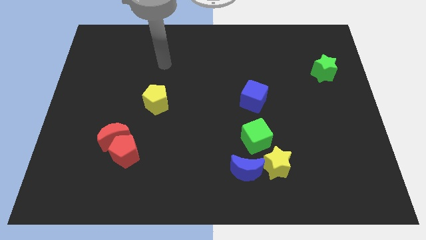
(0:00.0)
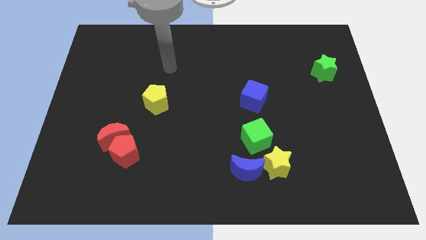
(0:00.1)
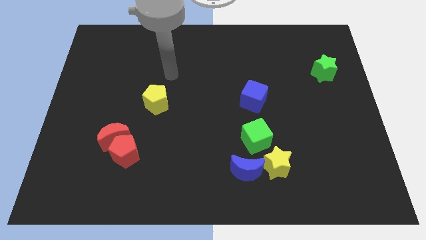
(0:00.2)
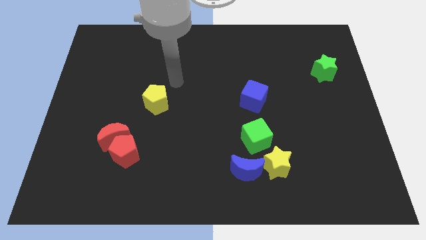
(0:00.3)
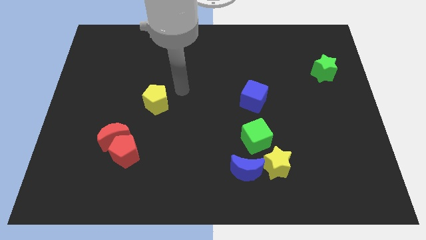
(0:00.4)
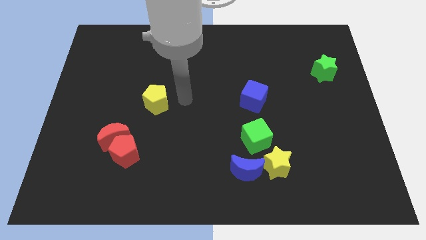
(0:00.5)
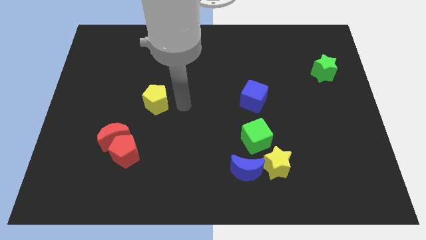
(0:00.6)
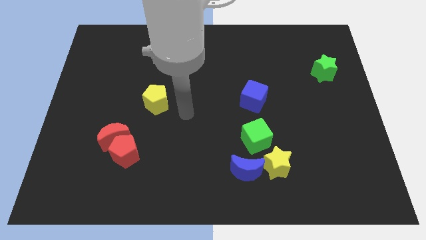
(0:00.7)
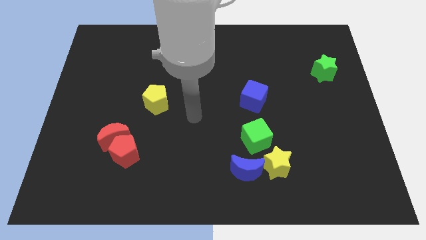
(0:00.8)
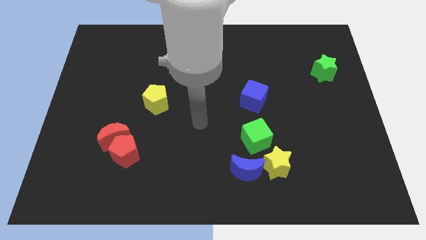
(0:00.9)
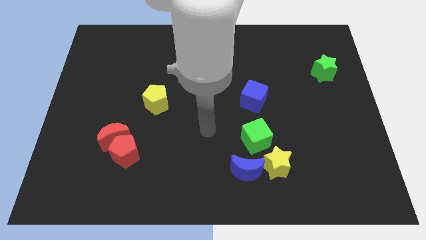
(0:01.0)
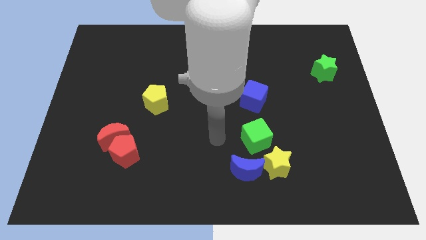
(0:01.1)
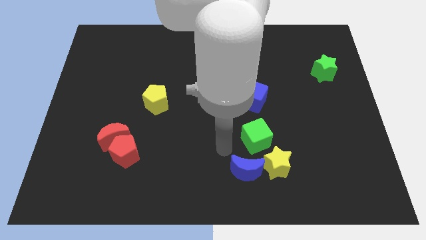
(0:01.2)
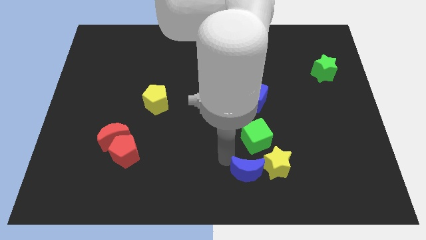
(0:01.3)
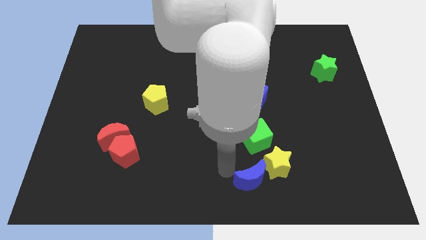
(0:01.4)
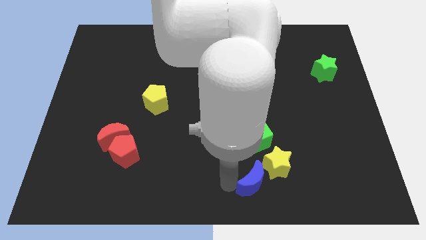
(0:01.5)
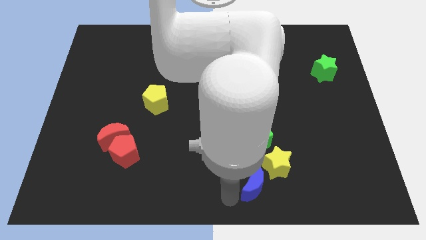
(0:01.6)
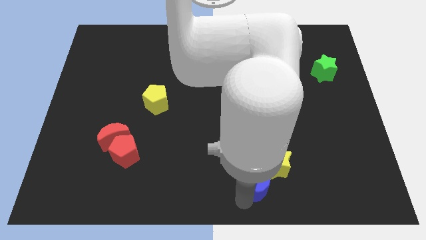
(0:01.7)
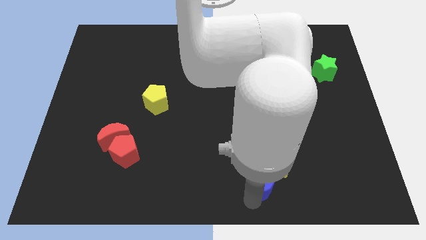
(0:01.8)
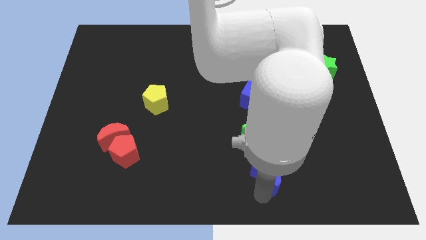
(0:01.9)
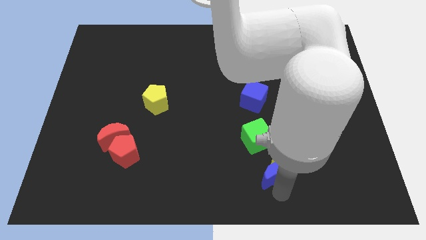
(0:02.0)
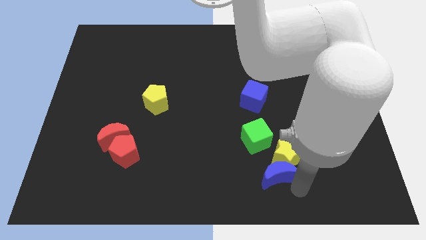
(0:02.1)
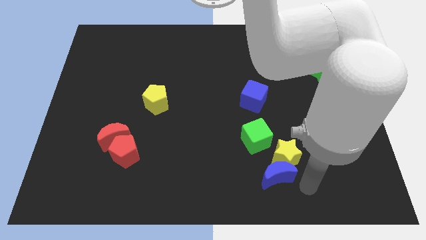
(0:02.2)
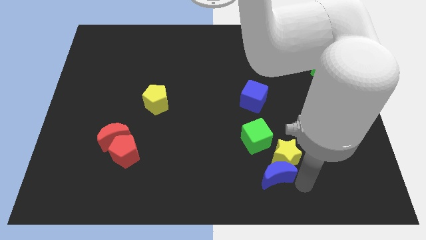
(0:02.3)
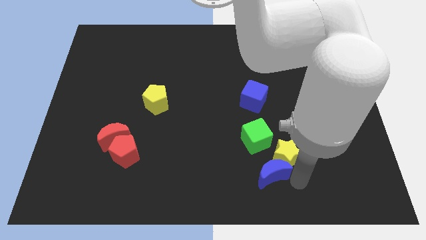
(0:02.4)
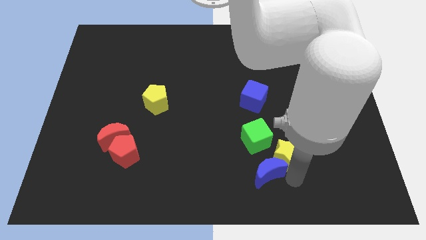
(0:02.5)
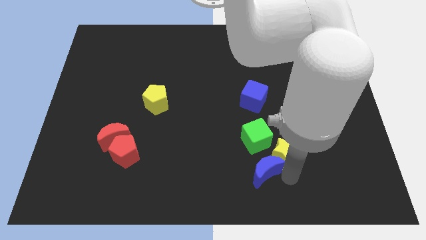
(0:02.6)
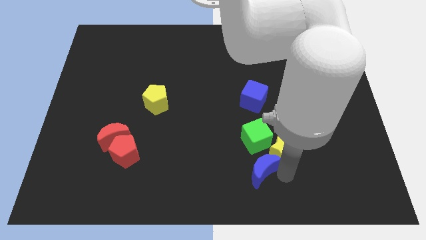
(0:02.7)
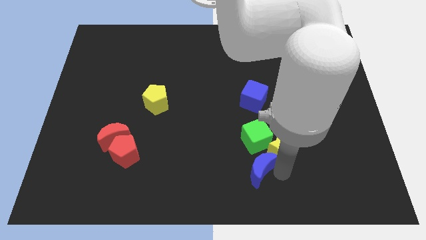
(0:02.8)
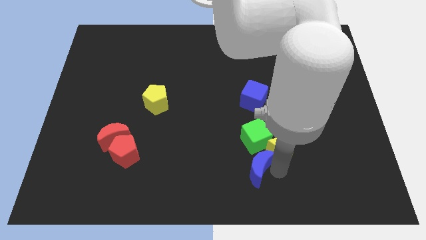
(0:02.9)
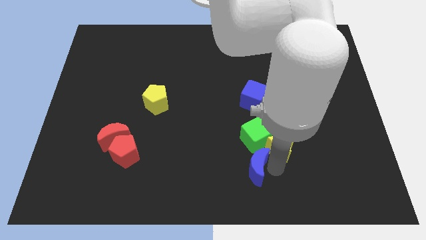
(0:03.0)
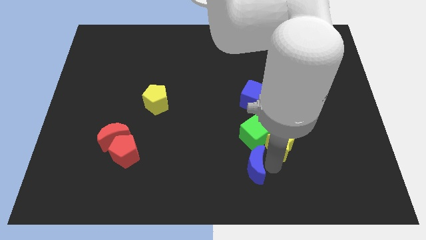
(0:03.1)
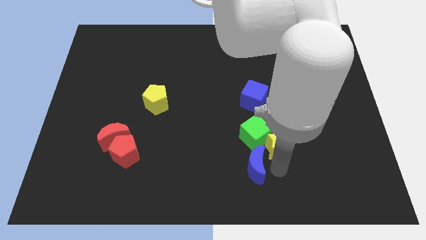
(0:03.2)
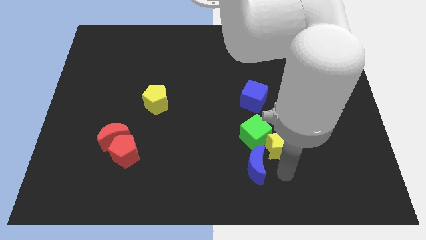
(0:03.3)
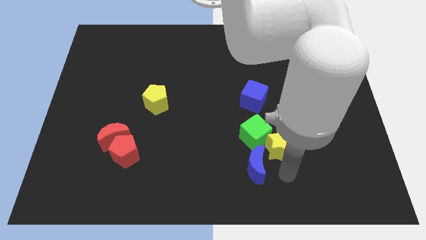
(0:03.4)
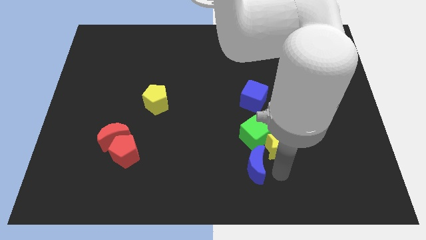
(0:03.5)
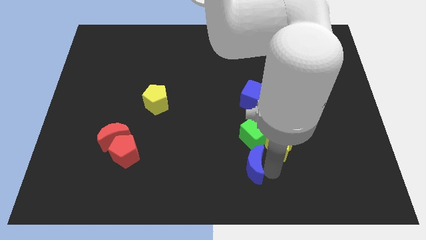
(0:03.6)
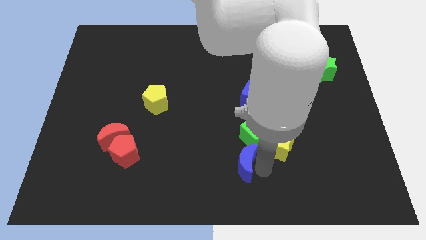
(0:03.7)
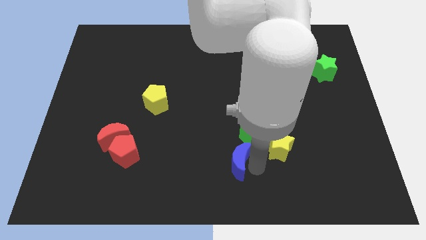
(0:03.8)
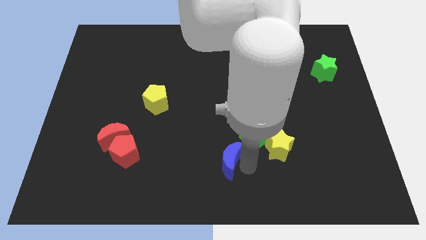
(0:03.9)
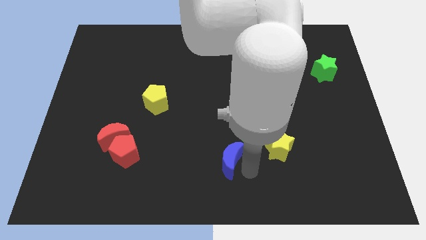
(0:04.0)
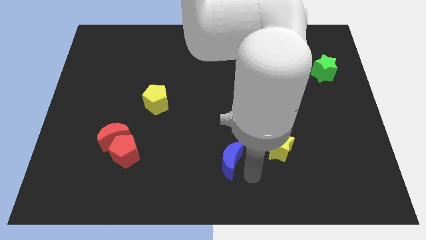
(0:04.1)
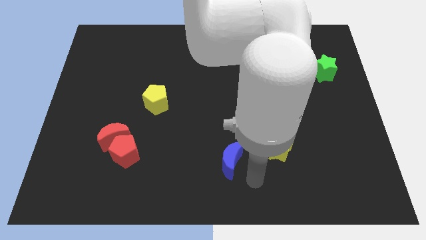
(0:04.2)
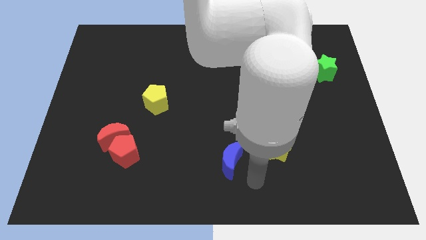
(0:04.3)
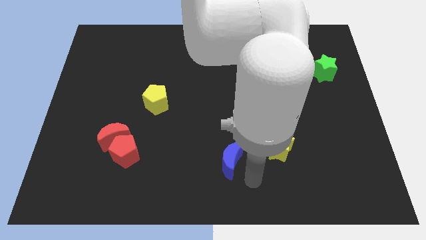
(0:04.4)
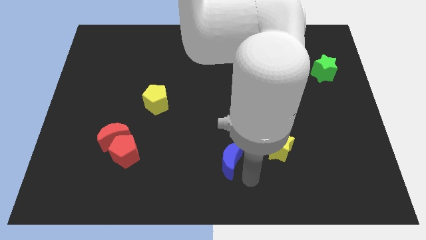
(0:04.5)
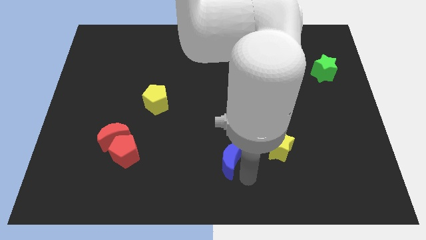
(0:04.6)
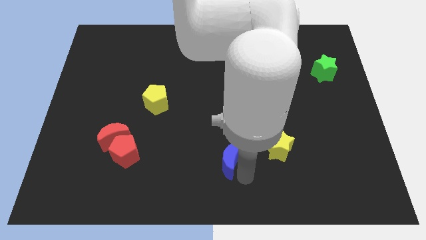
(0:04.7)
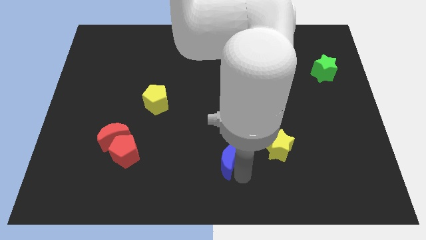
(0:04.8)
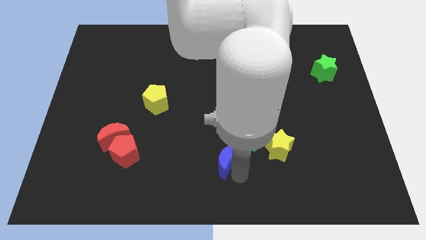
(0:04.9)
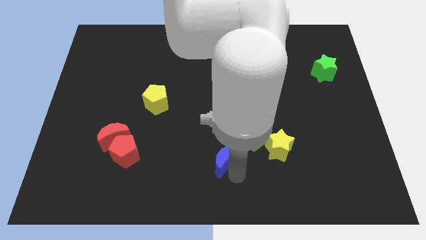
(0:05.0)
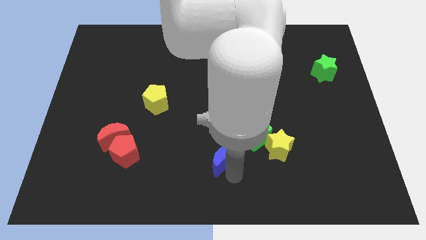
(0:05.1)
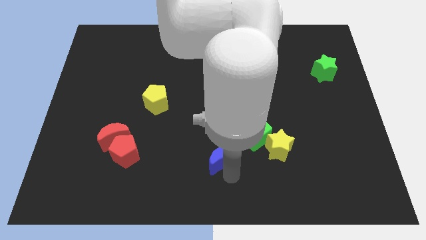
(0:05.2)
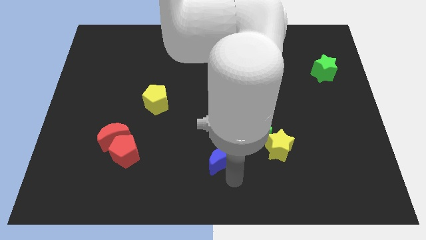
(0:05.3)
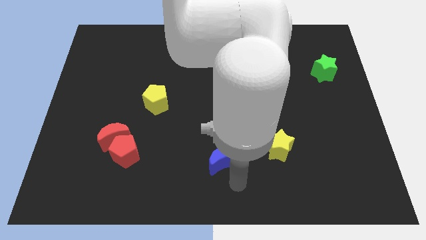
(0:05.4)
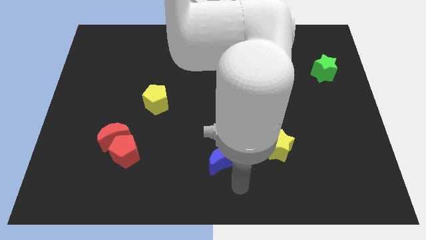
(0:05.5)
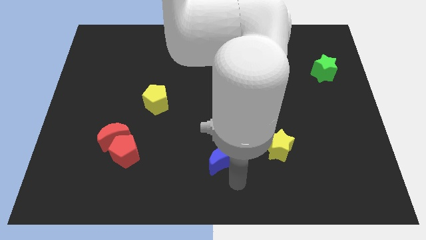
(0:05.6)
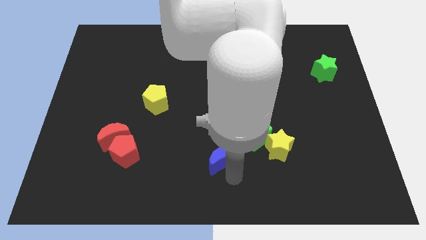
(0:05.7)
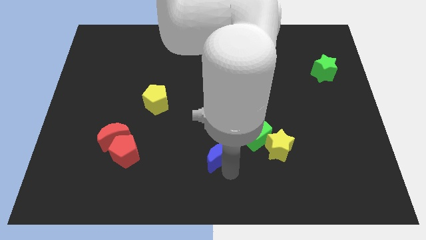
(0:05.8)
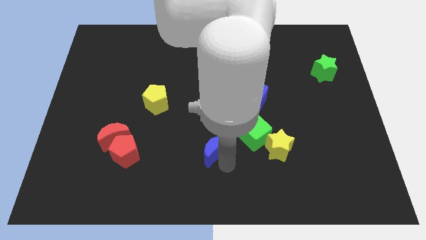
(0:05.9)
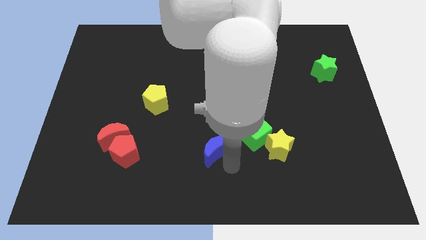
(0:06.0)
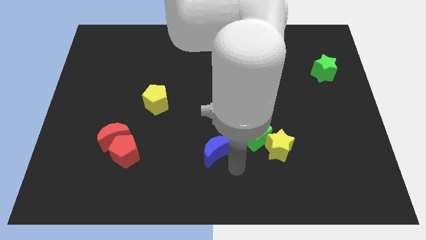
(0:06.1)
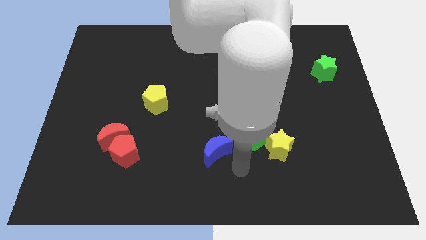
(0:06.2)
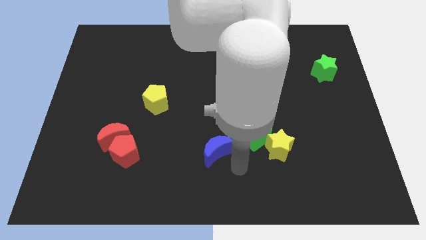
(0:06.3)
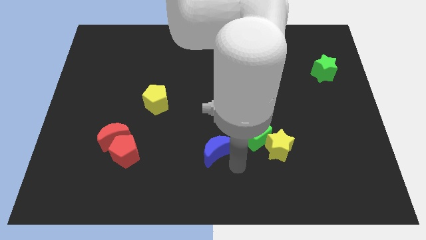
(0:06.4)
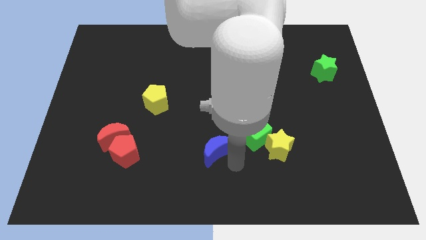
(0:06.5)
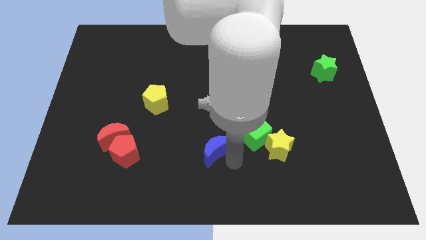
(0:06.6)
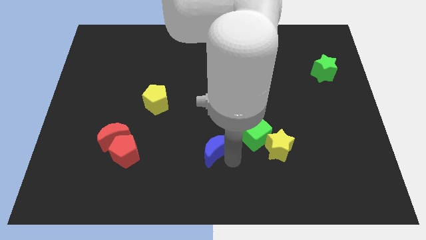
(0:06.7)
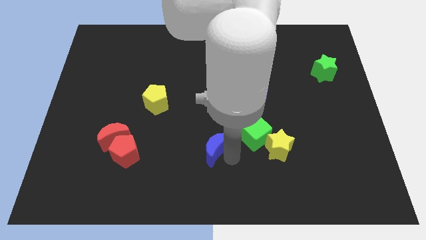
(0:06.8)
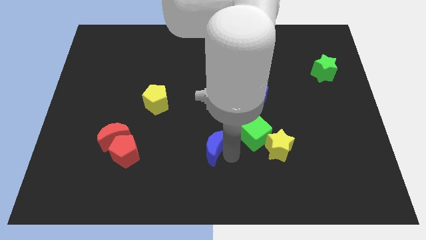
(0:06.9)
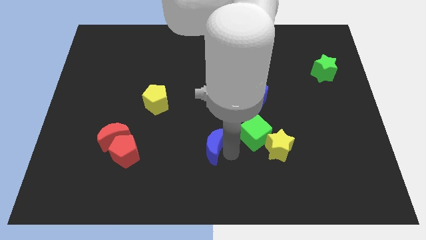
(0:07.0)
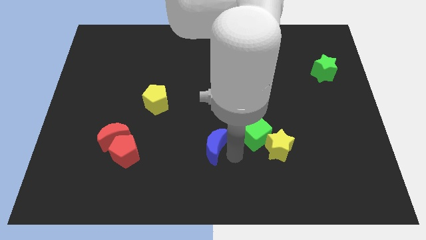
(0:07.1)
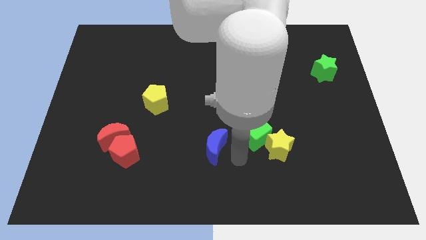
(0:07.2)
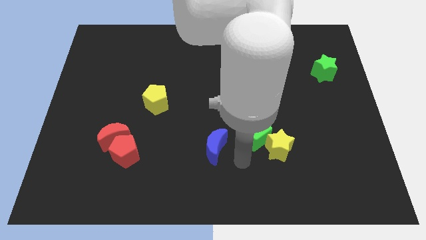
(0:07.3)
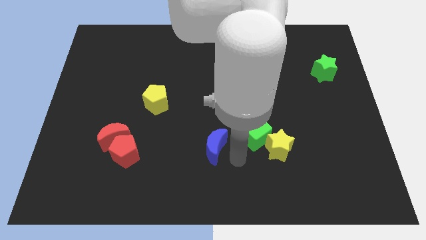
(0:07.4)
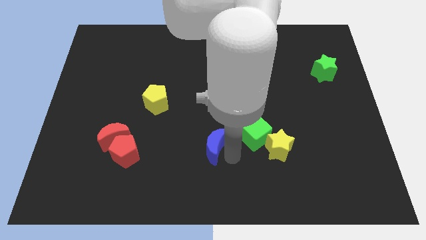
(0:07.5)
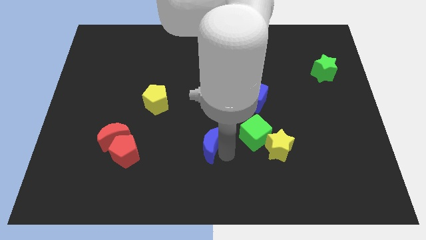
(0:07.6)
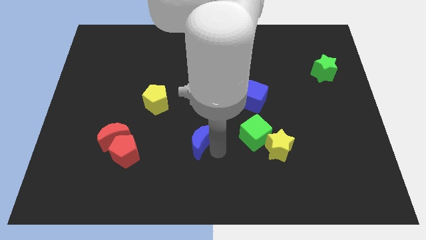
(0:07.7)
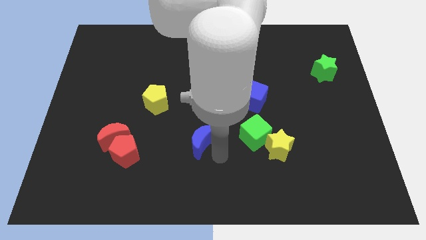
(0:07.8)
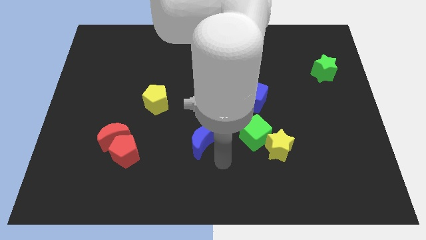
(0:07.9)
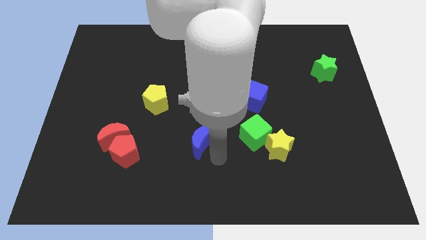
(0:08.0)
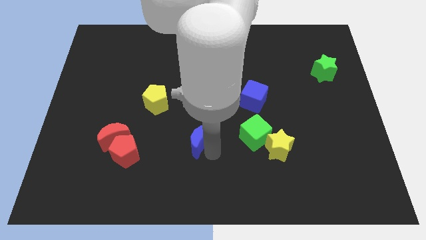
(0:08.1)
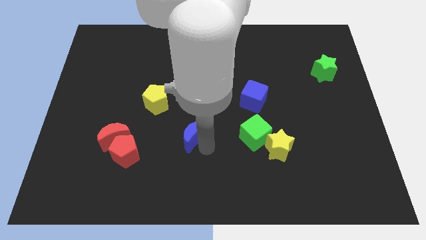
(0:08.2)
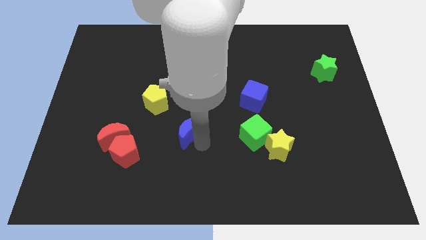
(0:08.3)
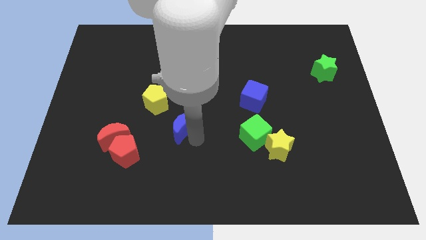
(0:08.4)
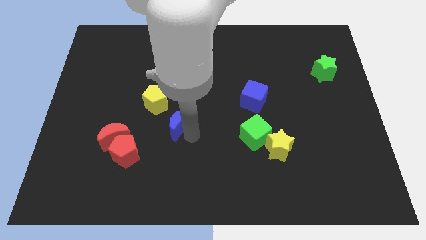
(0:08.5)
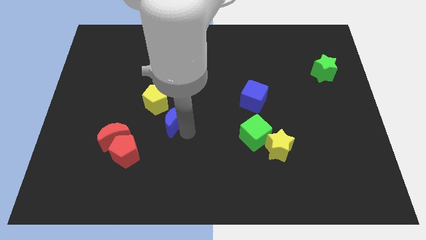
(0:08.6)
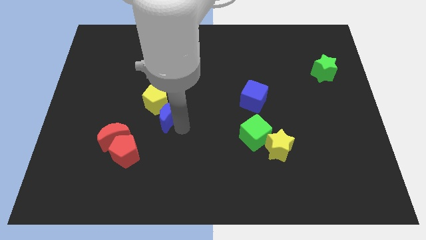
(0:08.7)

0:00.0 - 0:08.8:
push the blue moon towards the yellow pentagon
